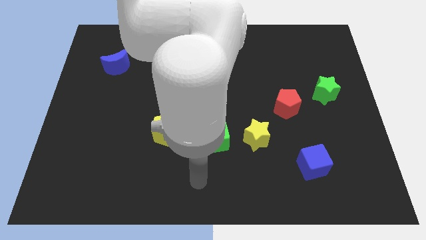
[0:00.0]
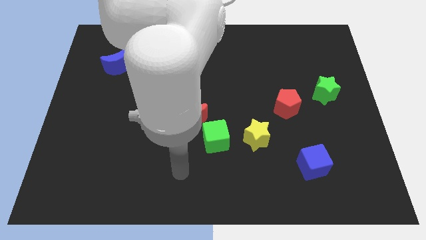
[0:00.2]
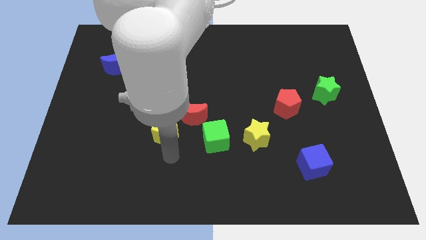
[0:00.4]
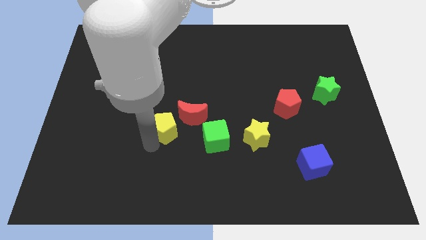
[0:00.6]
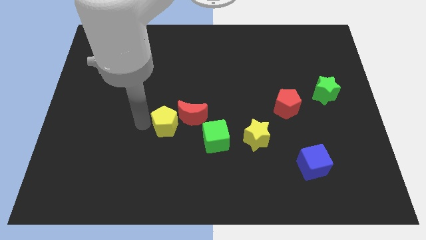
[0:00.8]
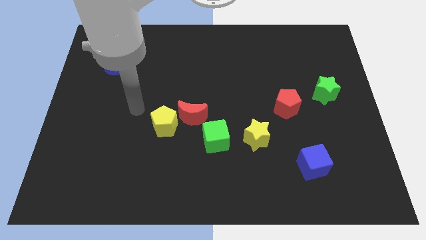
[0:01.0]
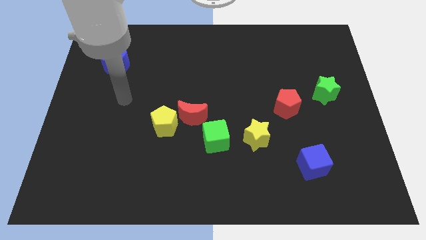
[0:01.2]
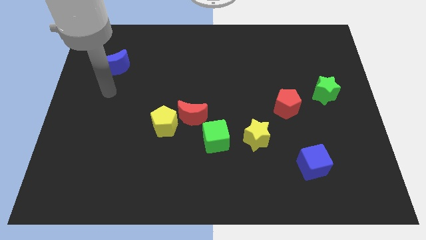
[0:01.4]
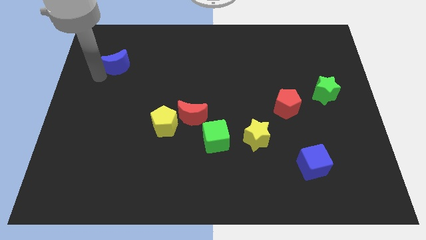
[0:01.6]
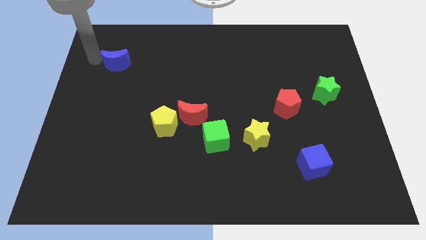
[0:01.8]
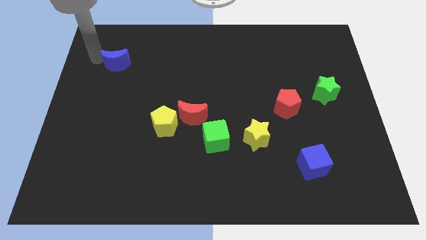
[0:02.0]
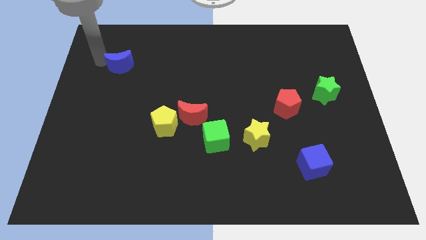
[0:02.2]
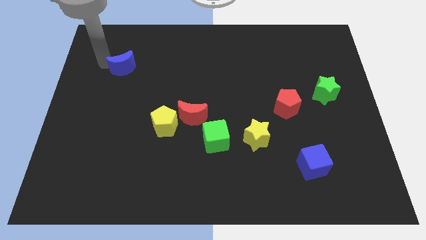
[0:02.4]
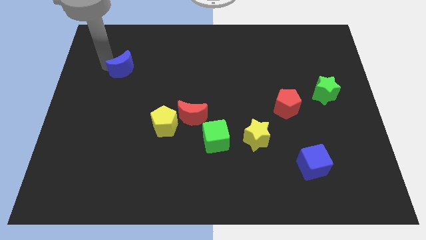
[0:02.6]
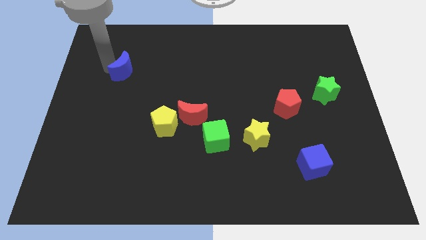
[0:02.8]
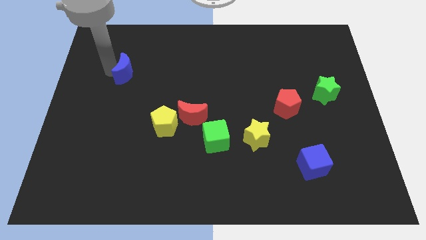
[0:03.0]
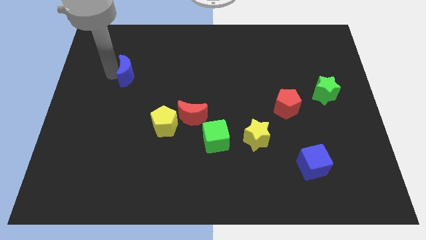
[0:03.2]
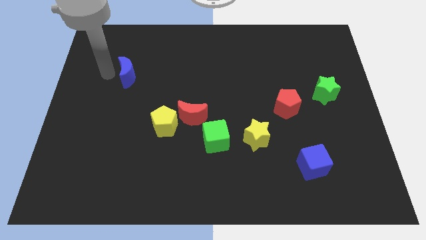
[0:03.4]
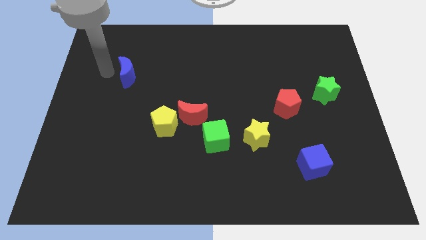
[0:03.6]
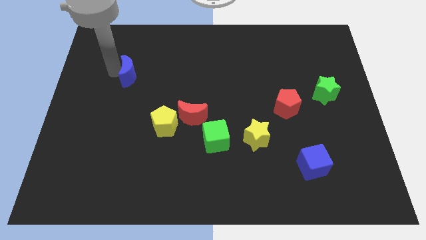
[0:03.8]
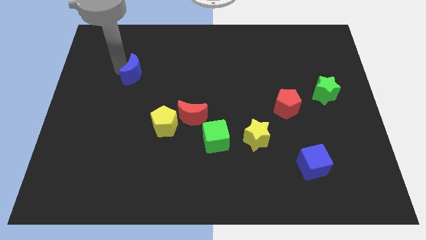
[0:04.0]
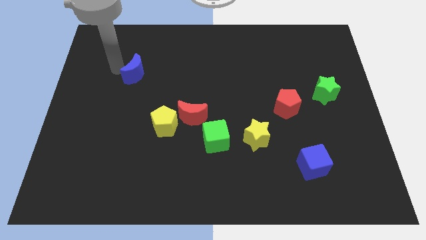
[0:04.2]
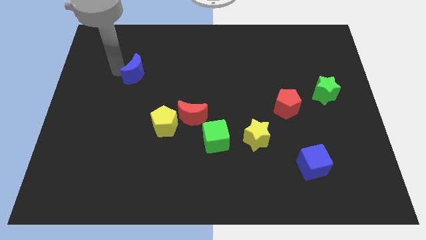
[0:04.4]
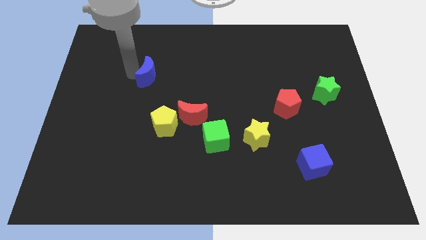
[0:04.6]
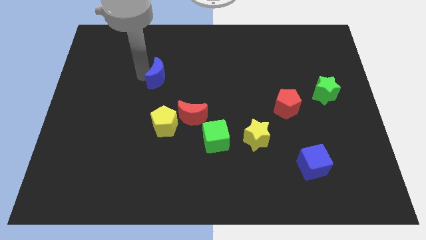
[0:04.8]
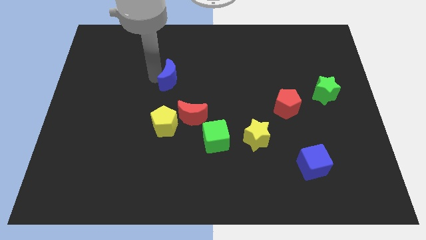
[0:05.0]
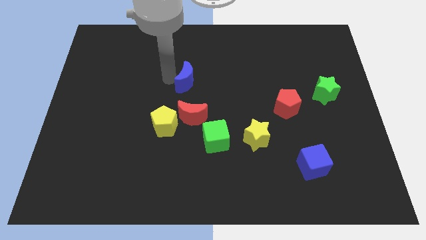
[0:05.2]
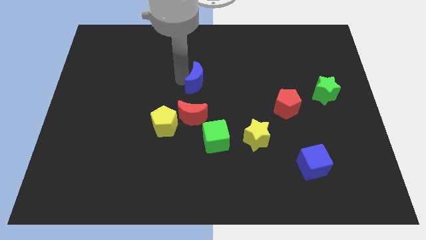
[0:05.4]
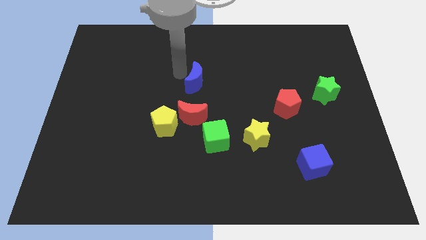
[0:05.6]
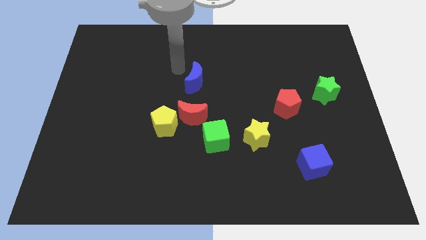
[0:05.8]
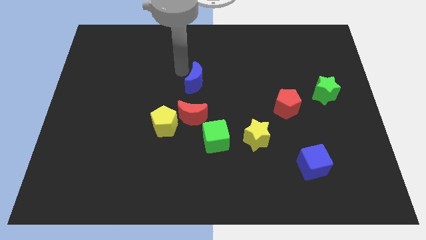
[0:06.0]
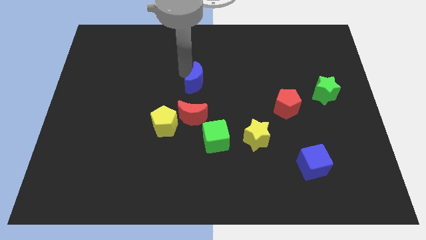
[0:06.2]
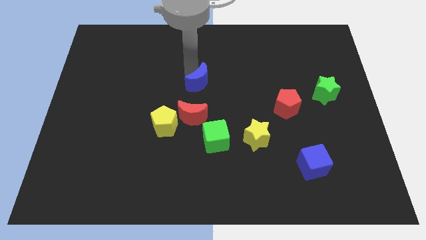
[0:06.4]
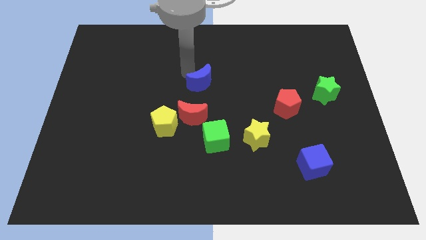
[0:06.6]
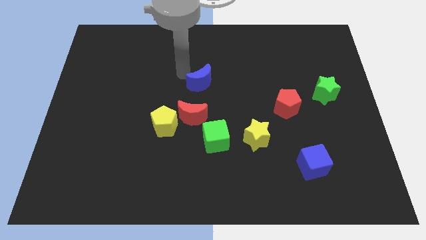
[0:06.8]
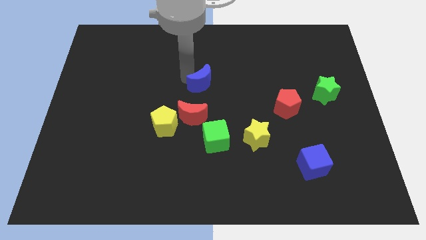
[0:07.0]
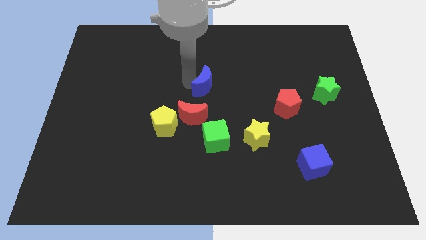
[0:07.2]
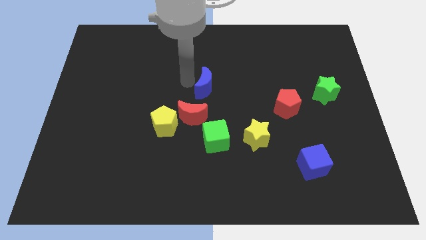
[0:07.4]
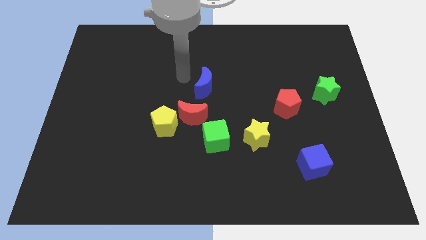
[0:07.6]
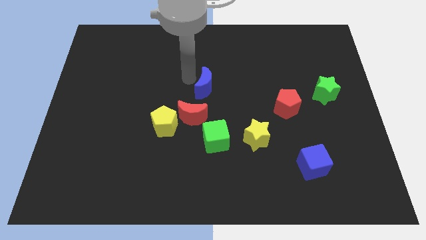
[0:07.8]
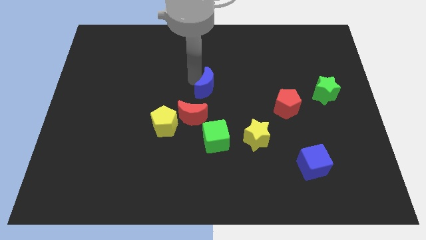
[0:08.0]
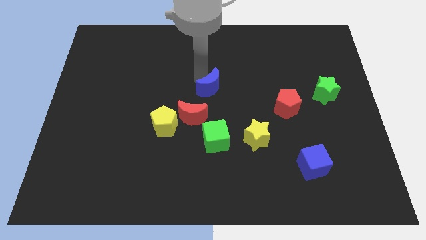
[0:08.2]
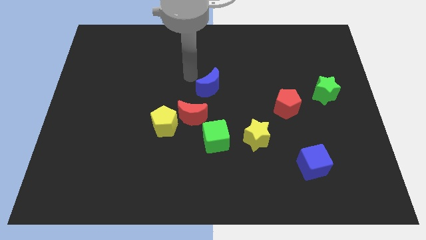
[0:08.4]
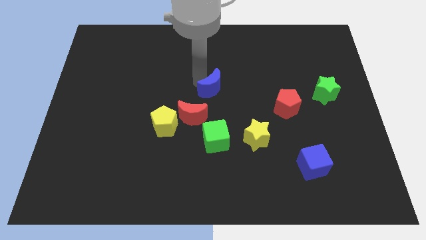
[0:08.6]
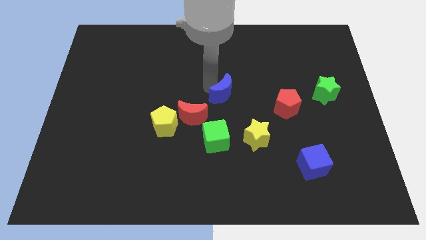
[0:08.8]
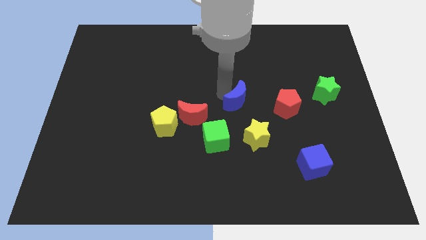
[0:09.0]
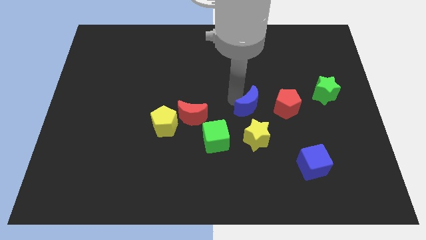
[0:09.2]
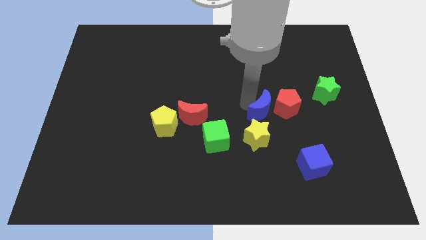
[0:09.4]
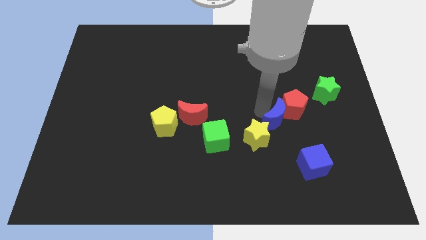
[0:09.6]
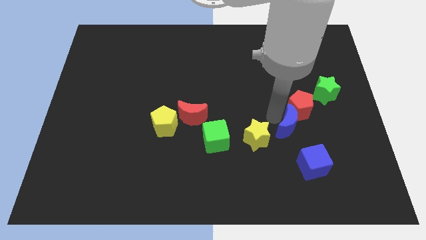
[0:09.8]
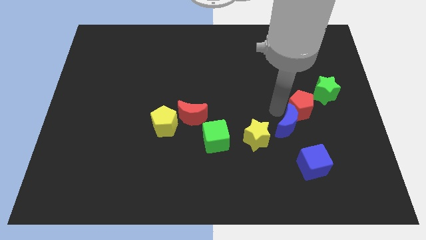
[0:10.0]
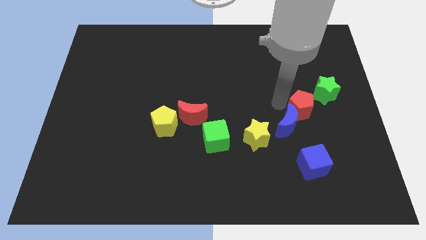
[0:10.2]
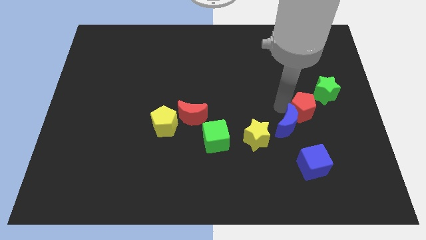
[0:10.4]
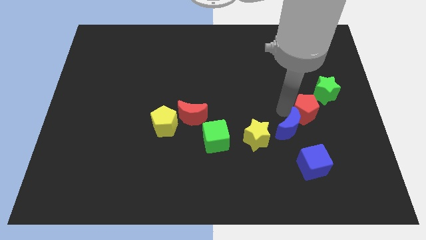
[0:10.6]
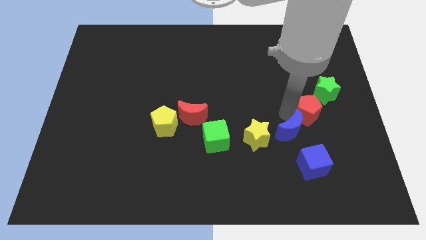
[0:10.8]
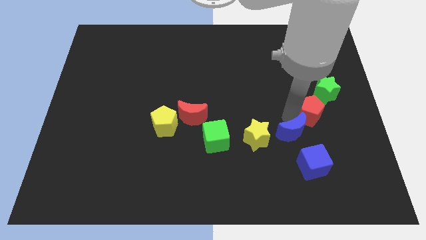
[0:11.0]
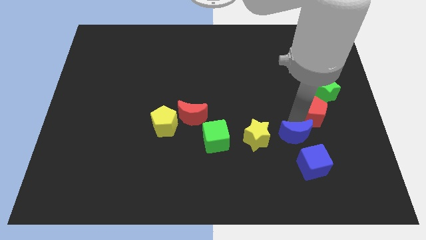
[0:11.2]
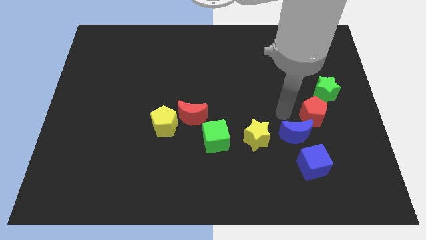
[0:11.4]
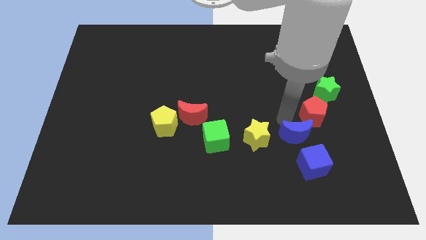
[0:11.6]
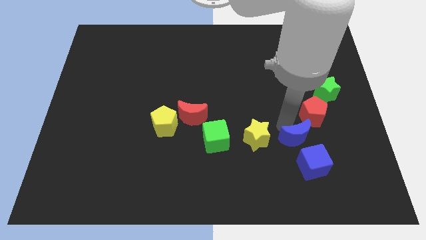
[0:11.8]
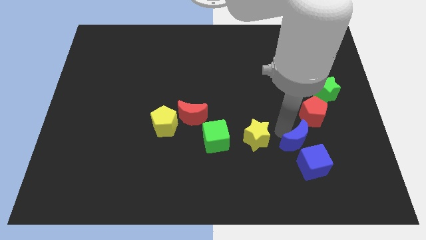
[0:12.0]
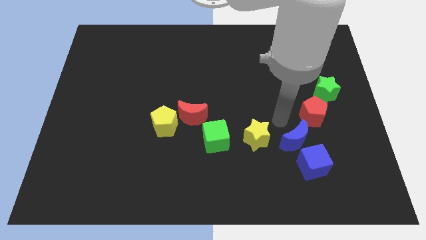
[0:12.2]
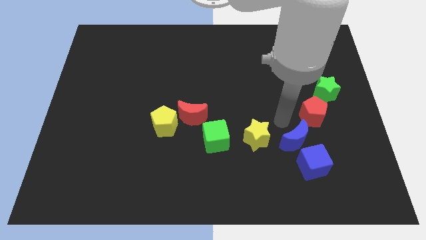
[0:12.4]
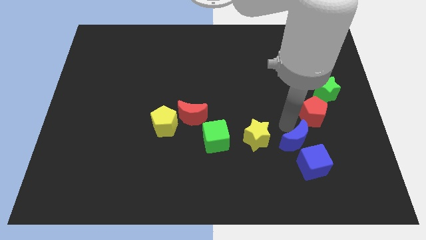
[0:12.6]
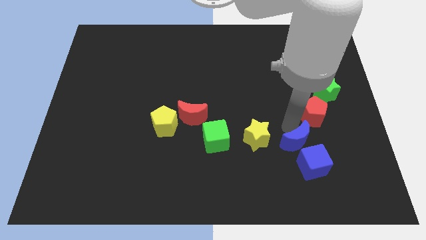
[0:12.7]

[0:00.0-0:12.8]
push the blue moon towards the blue cube

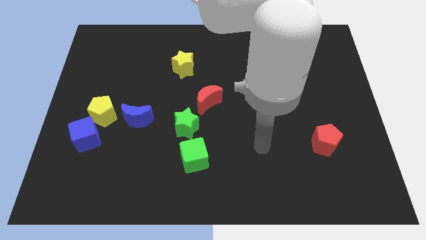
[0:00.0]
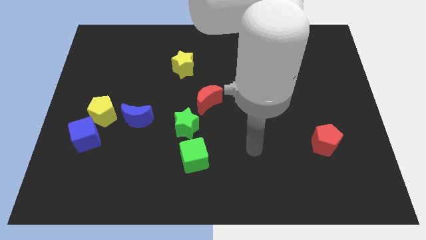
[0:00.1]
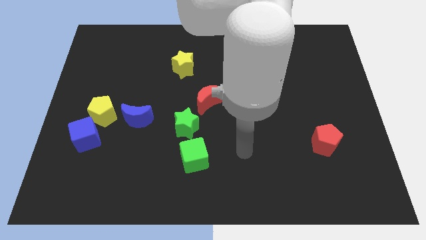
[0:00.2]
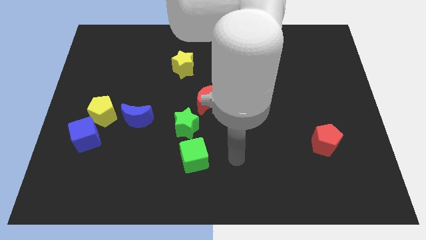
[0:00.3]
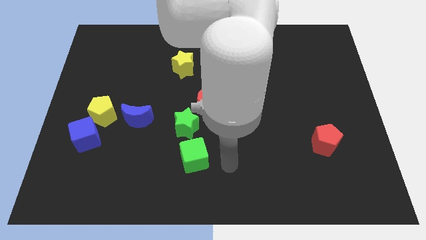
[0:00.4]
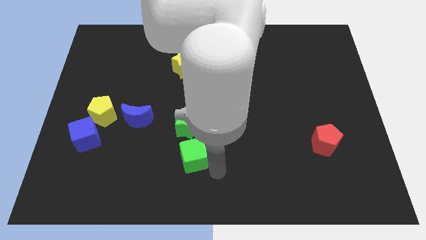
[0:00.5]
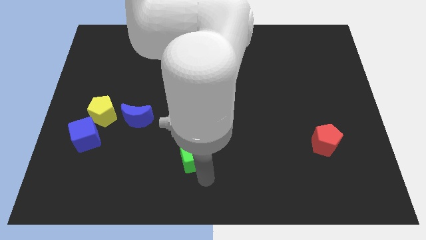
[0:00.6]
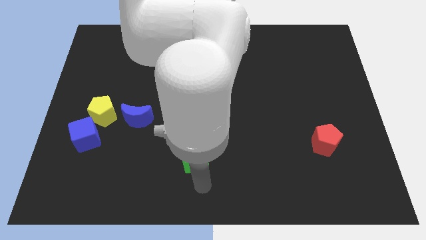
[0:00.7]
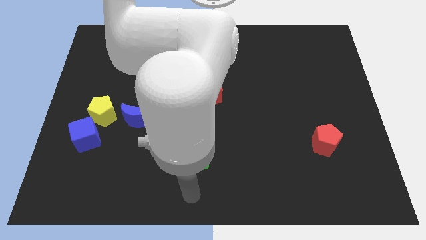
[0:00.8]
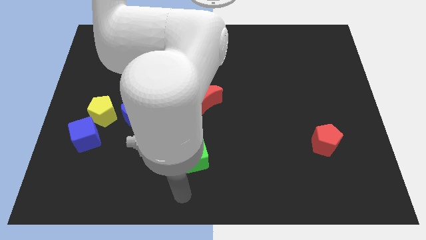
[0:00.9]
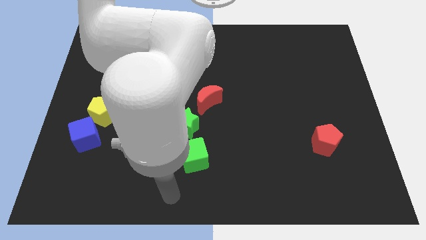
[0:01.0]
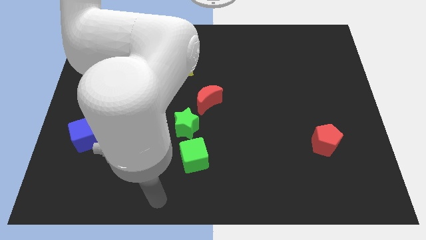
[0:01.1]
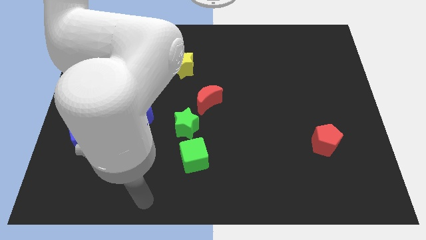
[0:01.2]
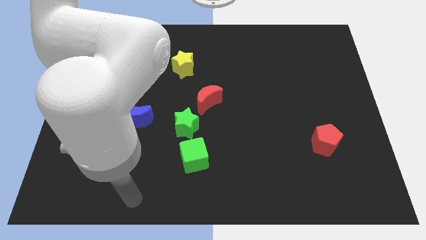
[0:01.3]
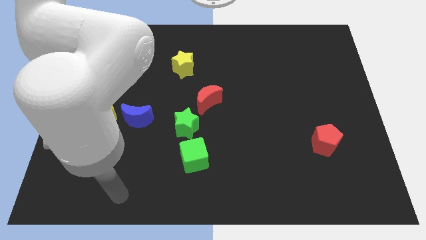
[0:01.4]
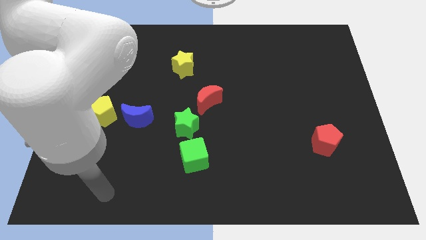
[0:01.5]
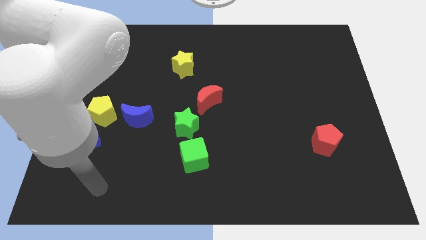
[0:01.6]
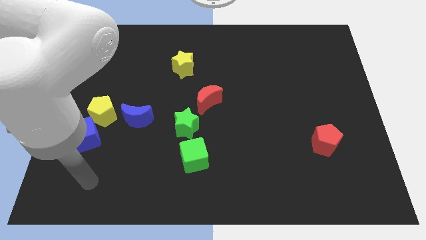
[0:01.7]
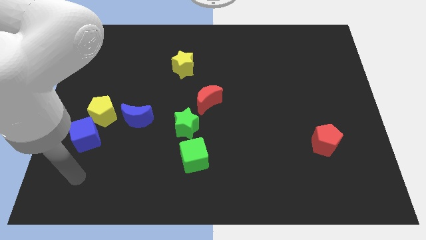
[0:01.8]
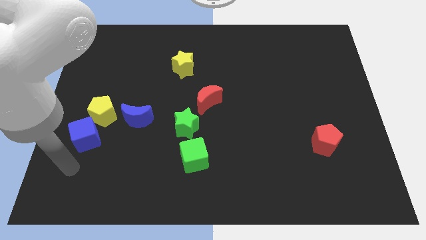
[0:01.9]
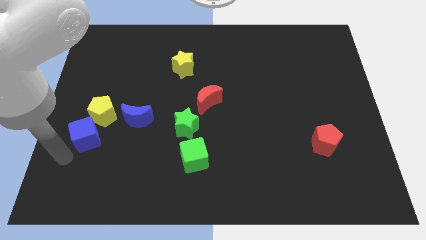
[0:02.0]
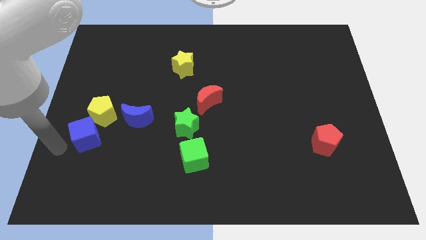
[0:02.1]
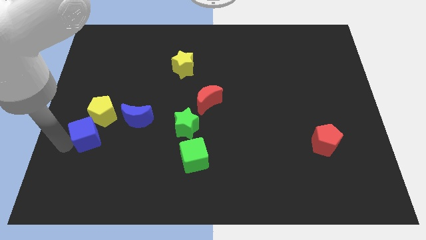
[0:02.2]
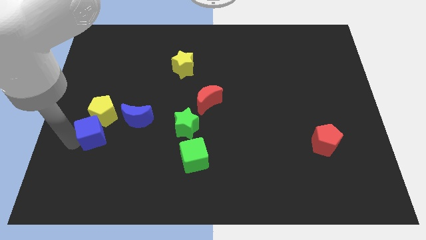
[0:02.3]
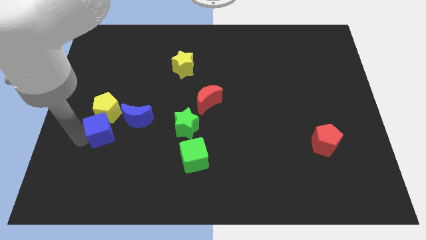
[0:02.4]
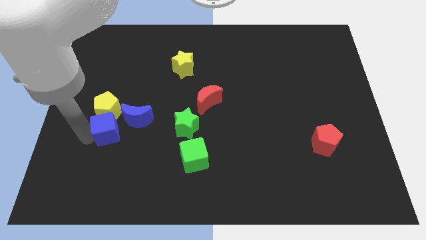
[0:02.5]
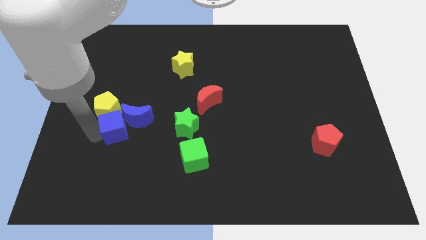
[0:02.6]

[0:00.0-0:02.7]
put the blue cube next to the blue moon
